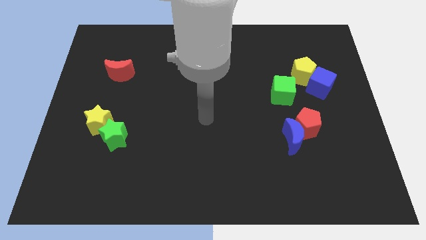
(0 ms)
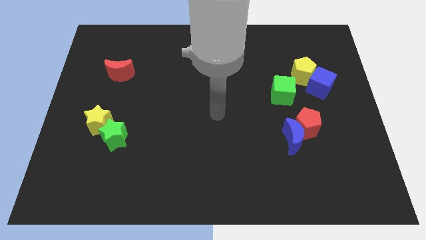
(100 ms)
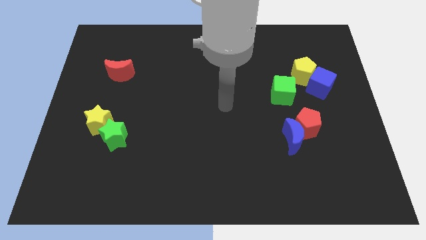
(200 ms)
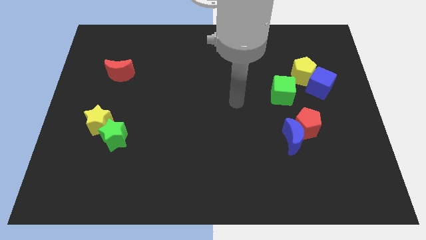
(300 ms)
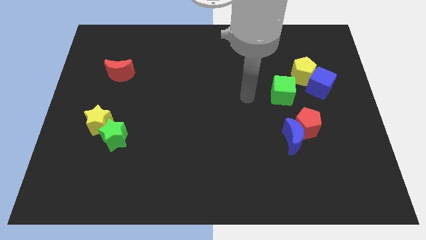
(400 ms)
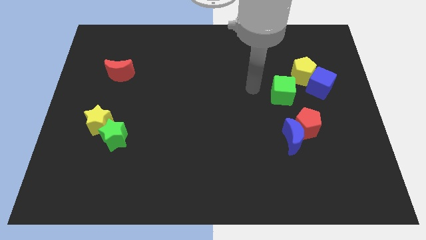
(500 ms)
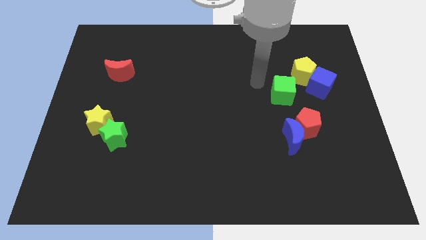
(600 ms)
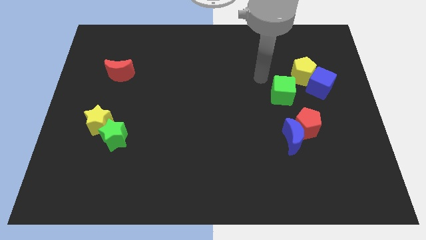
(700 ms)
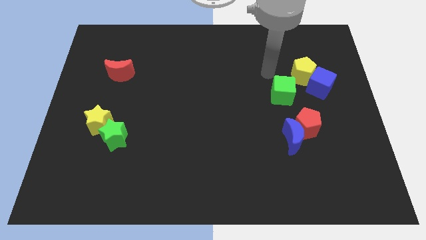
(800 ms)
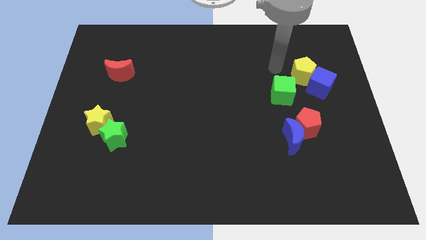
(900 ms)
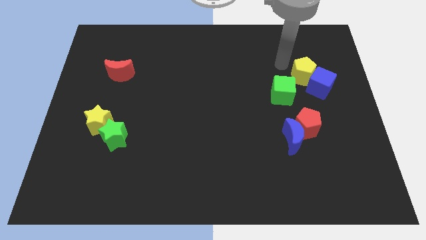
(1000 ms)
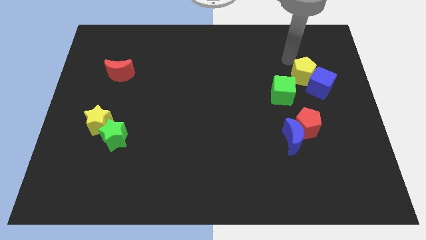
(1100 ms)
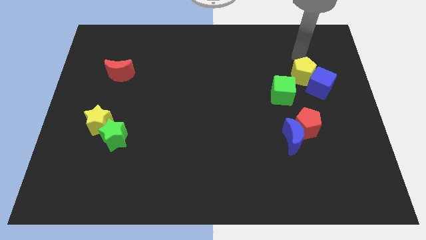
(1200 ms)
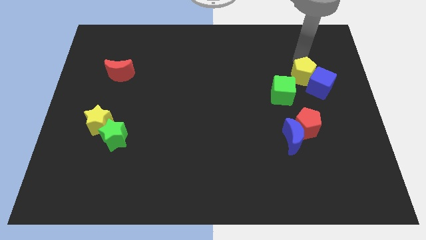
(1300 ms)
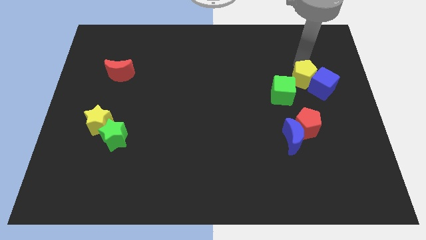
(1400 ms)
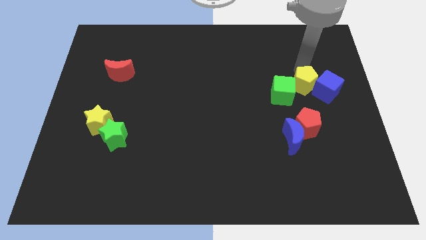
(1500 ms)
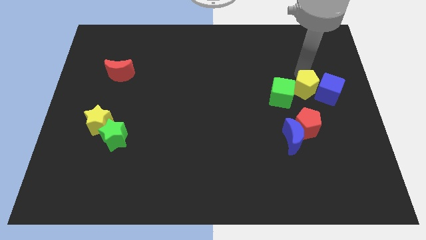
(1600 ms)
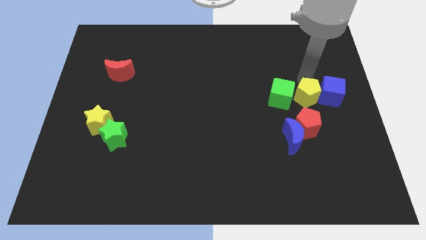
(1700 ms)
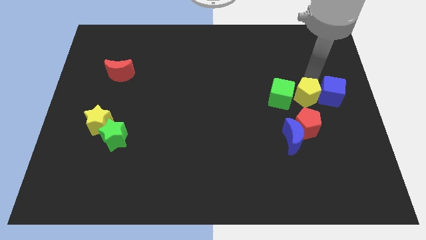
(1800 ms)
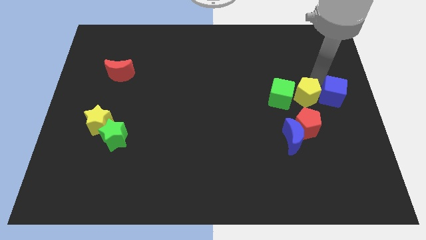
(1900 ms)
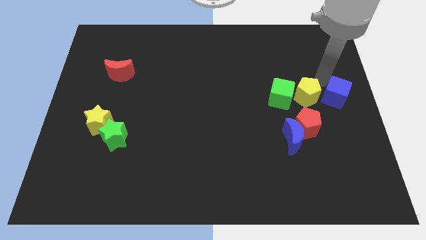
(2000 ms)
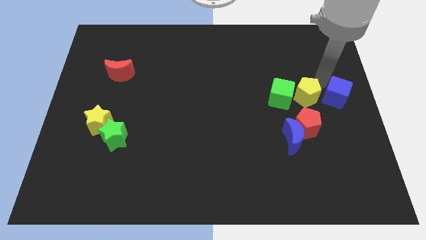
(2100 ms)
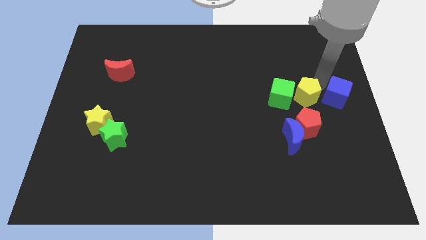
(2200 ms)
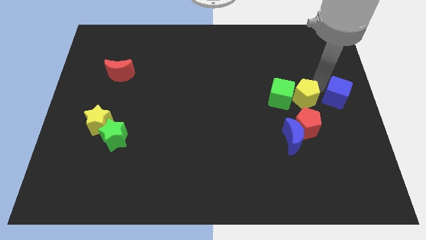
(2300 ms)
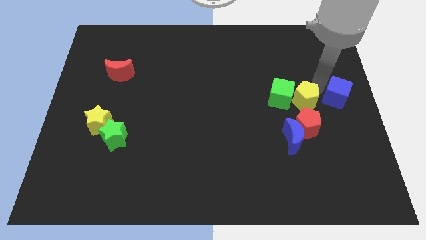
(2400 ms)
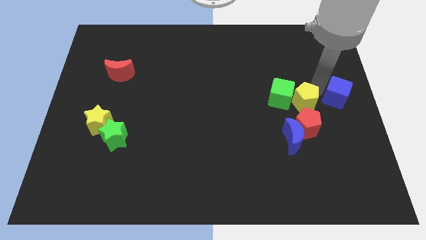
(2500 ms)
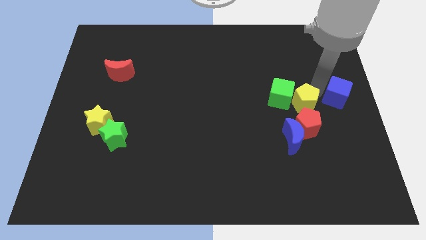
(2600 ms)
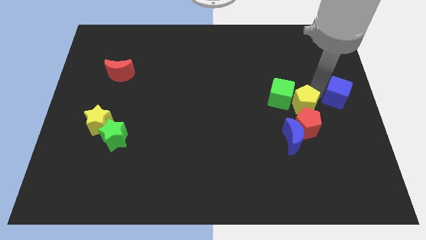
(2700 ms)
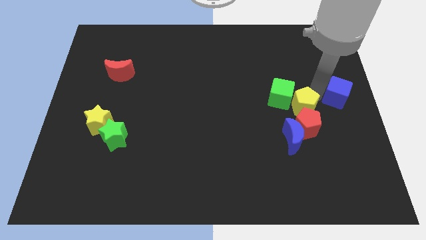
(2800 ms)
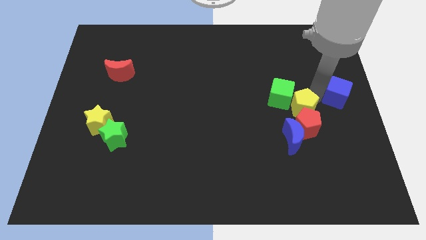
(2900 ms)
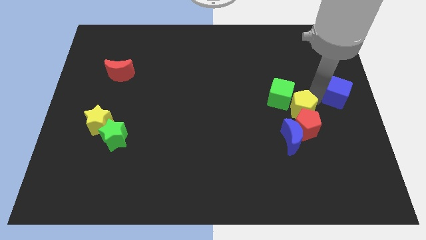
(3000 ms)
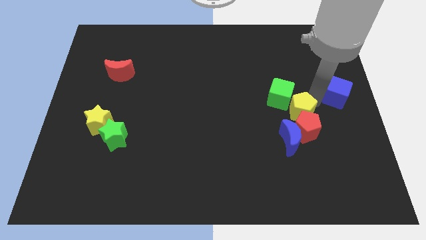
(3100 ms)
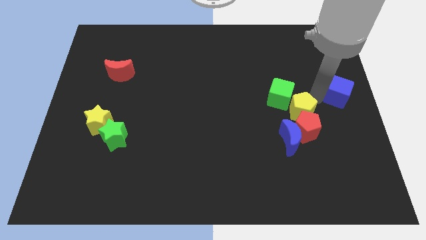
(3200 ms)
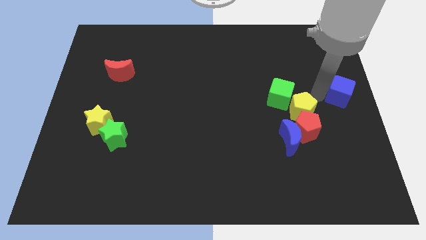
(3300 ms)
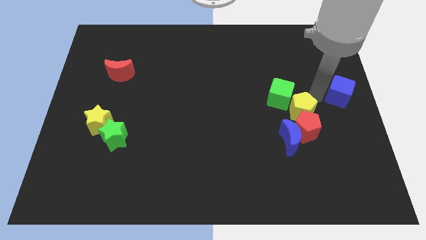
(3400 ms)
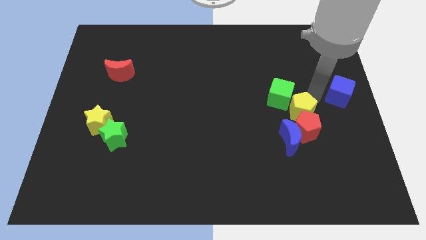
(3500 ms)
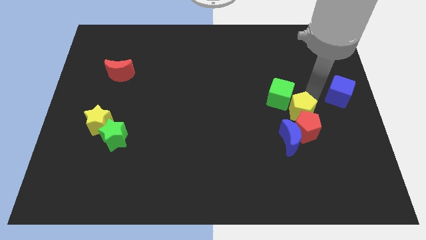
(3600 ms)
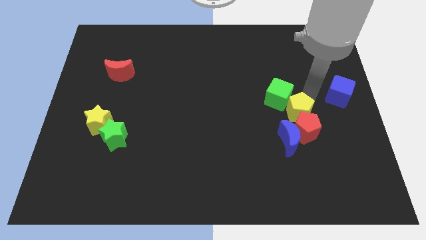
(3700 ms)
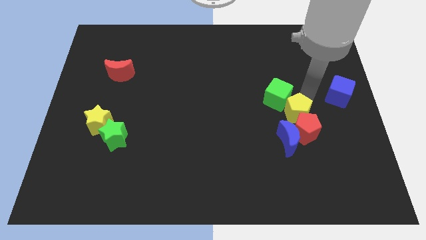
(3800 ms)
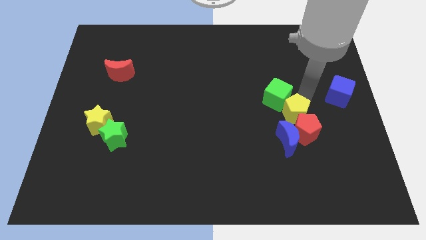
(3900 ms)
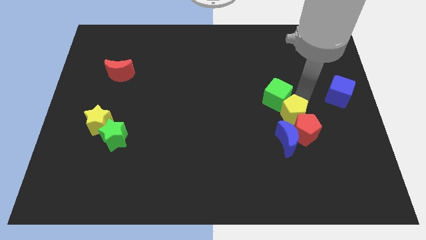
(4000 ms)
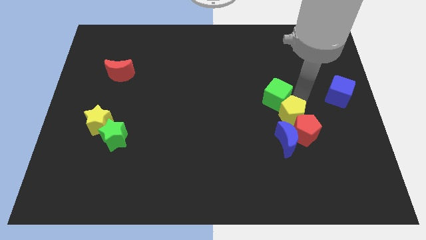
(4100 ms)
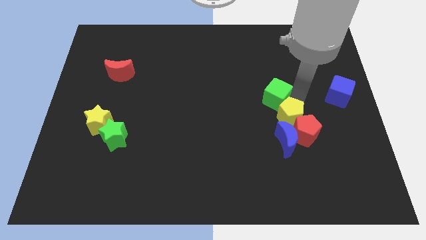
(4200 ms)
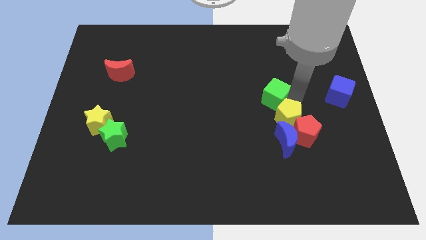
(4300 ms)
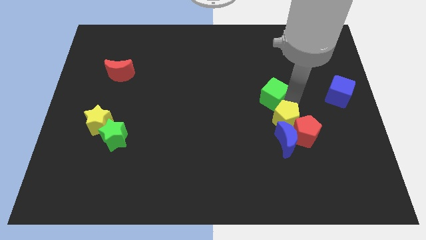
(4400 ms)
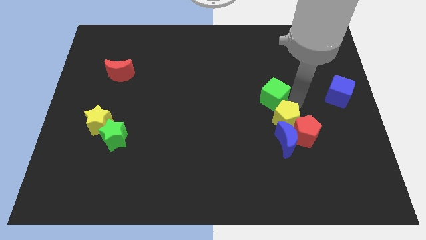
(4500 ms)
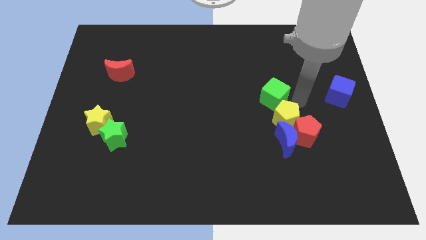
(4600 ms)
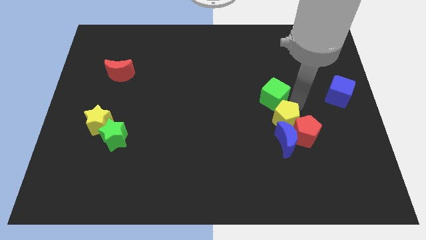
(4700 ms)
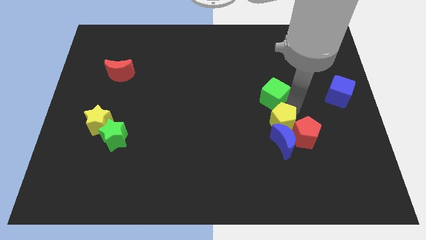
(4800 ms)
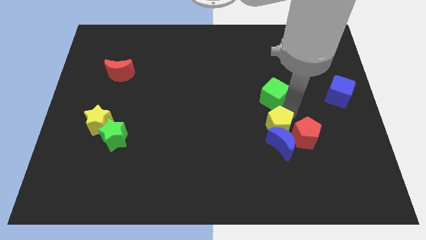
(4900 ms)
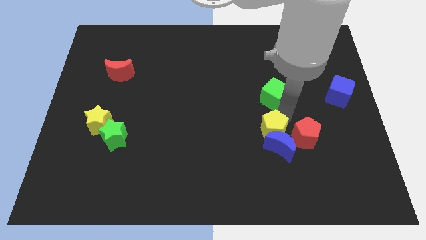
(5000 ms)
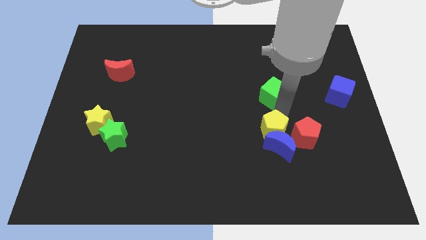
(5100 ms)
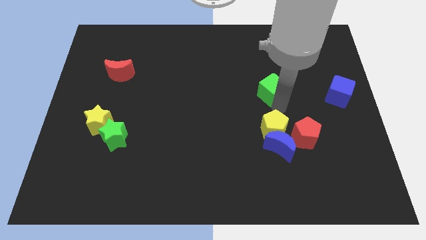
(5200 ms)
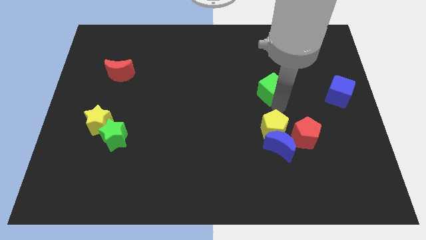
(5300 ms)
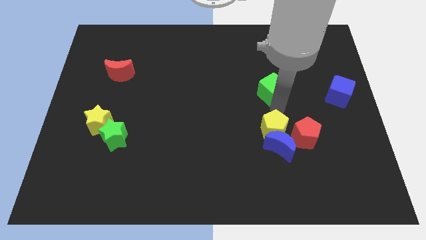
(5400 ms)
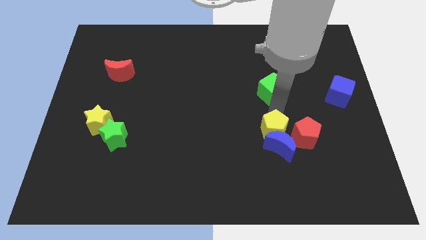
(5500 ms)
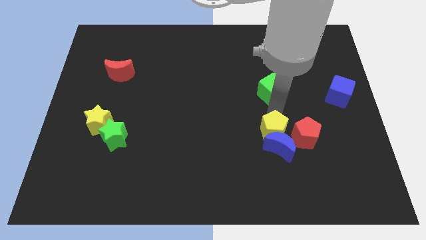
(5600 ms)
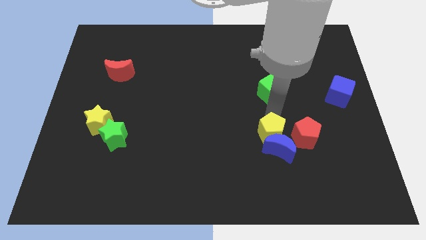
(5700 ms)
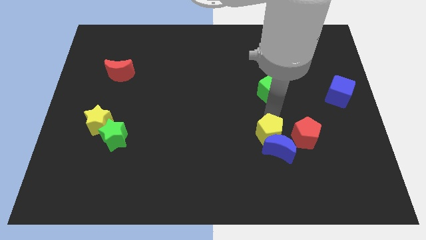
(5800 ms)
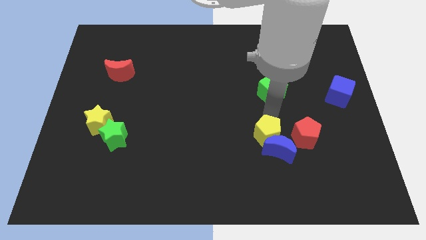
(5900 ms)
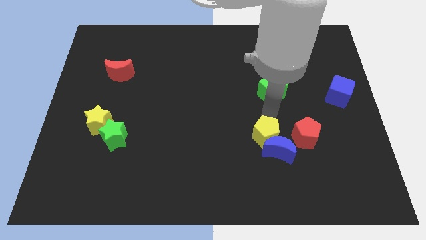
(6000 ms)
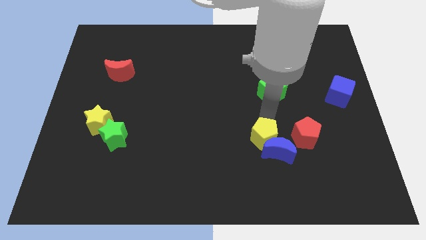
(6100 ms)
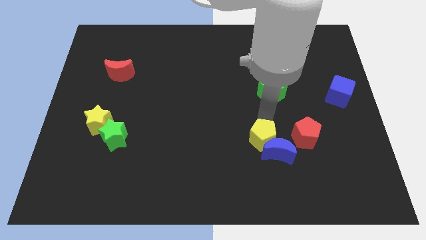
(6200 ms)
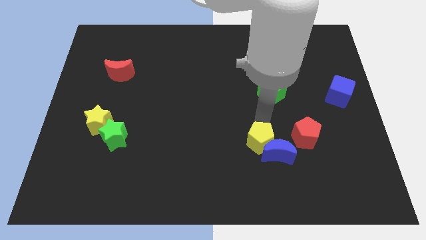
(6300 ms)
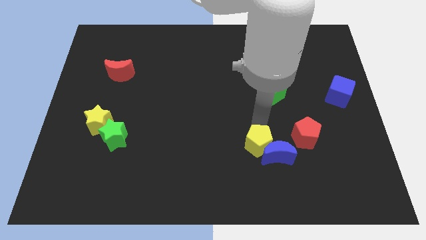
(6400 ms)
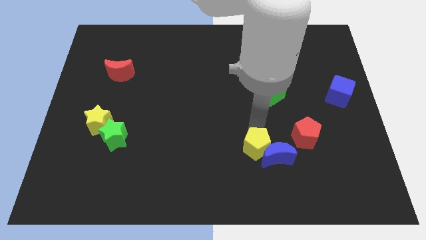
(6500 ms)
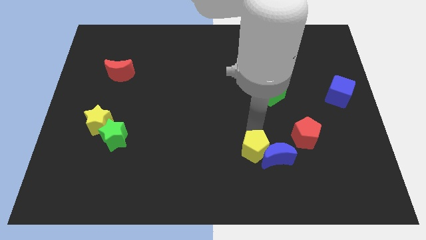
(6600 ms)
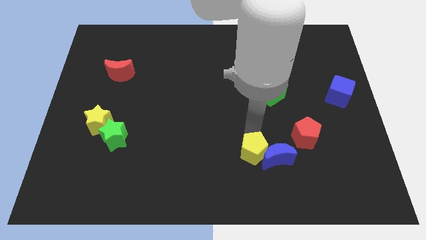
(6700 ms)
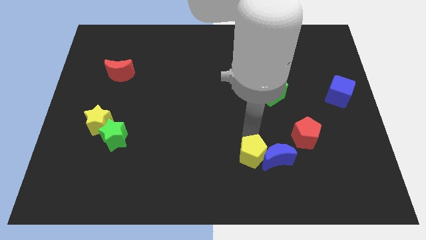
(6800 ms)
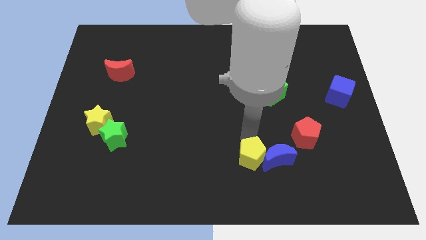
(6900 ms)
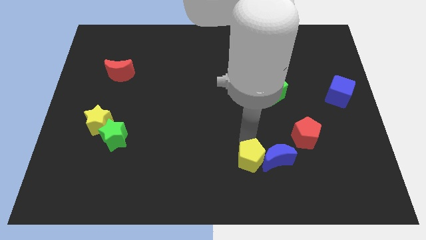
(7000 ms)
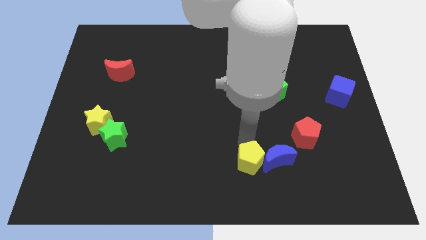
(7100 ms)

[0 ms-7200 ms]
push the yellow pentagon to the bottom
